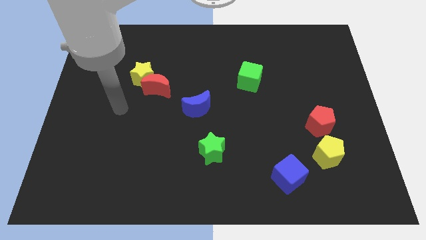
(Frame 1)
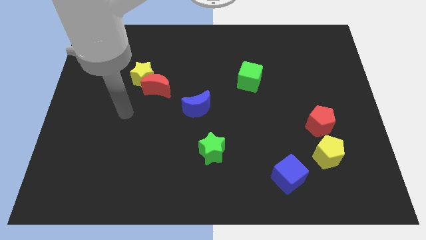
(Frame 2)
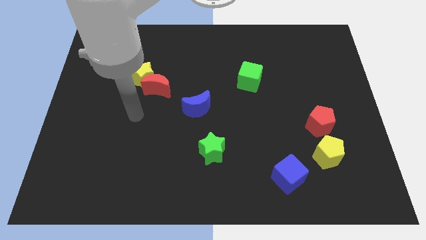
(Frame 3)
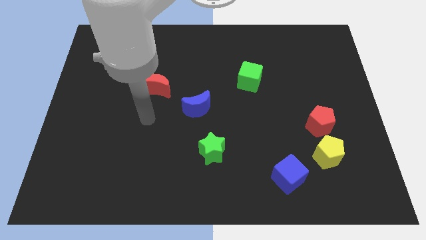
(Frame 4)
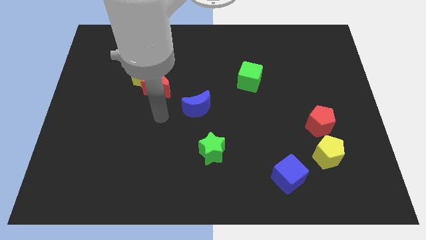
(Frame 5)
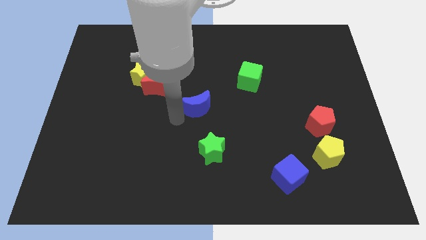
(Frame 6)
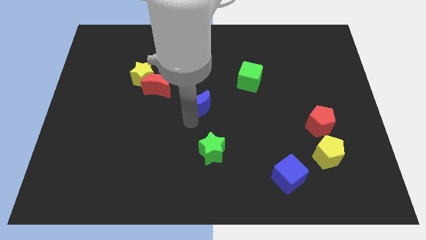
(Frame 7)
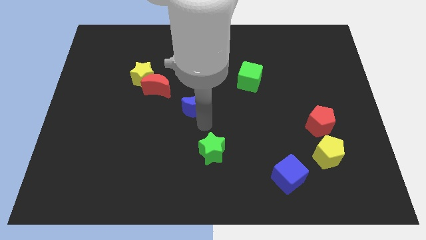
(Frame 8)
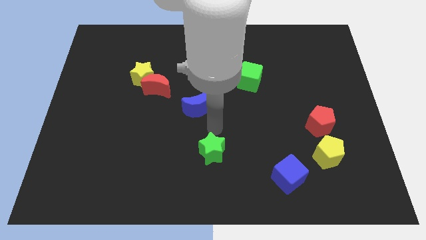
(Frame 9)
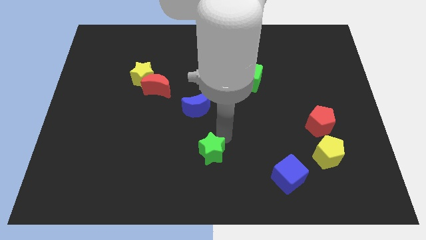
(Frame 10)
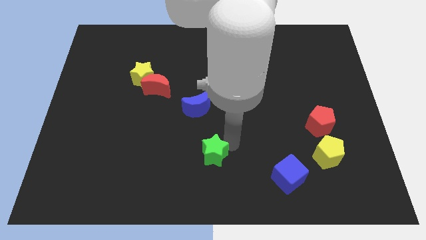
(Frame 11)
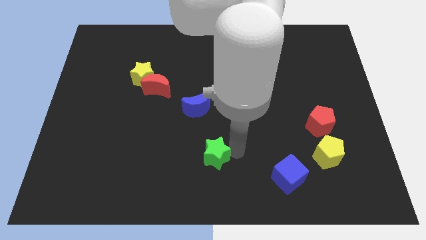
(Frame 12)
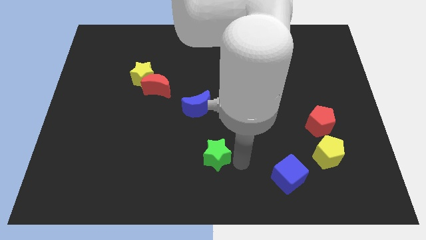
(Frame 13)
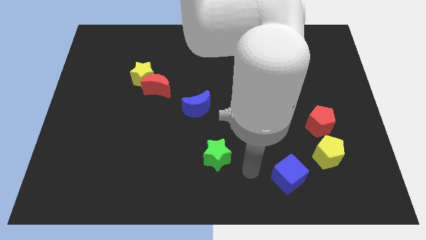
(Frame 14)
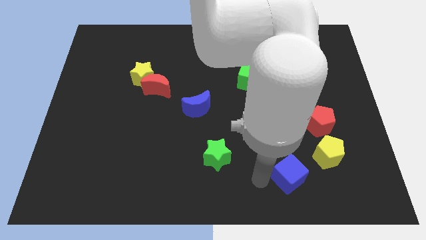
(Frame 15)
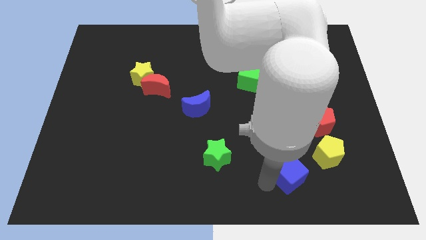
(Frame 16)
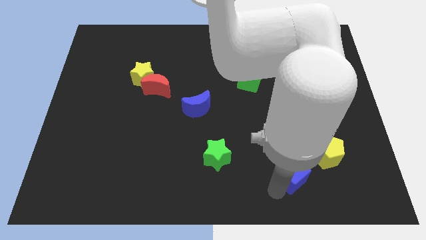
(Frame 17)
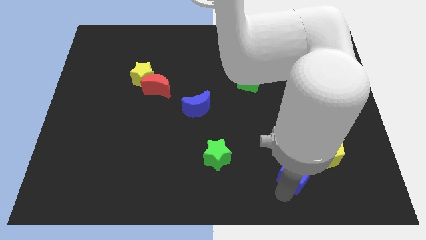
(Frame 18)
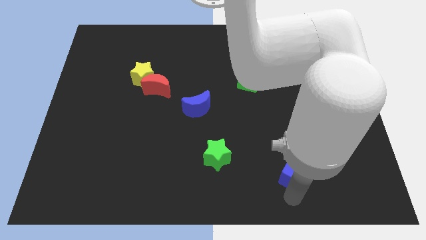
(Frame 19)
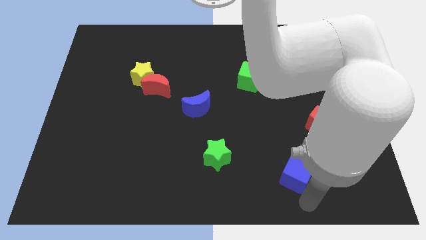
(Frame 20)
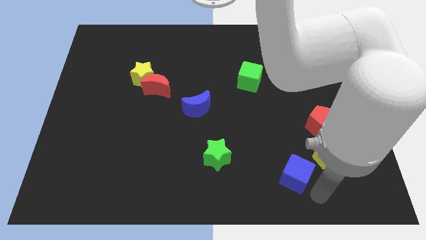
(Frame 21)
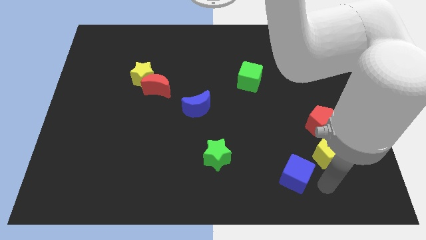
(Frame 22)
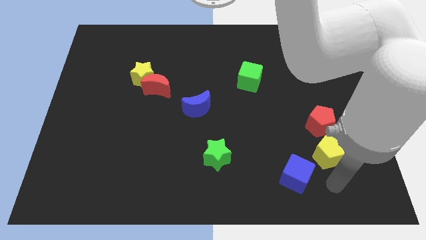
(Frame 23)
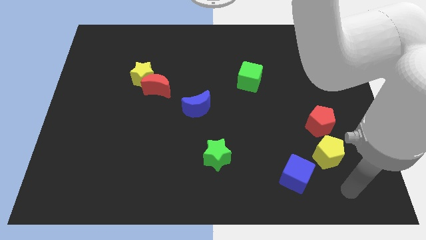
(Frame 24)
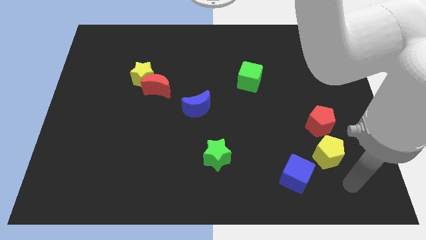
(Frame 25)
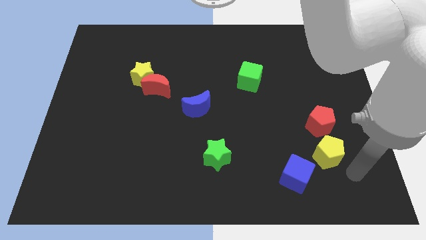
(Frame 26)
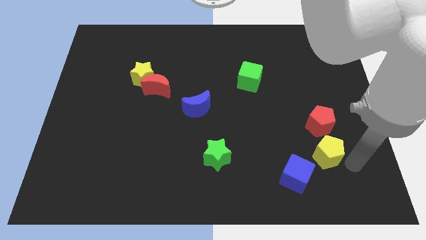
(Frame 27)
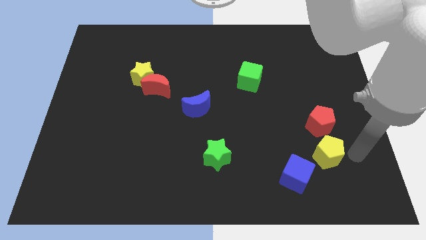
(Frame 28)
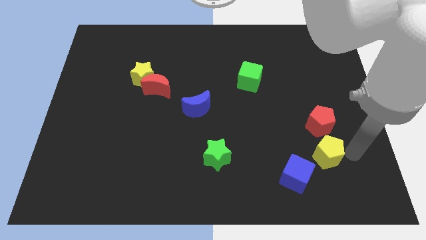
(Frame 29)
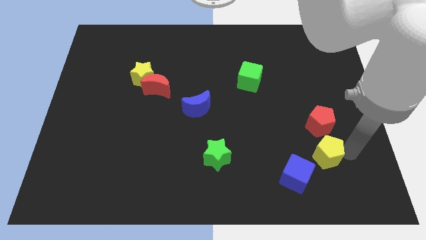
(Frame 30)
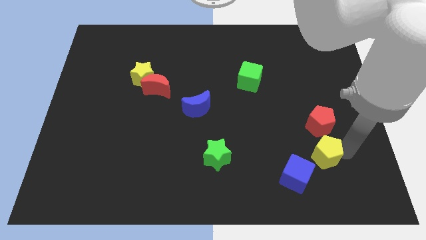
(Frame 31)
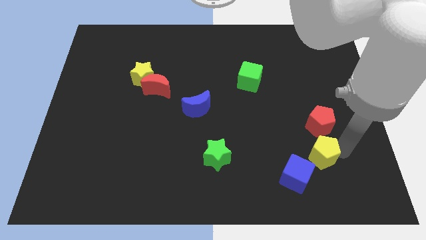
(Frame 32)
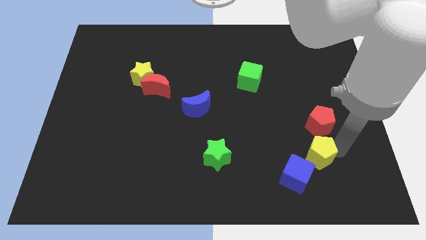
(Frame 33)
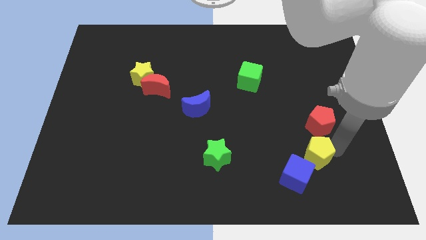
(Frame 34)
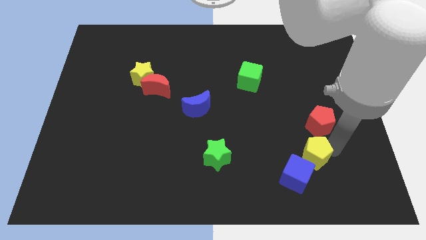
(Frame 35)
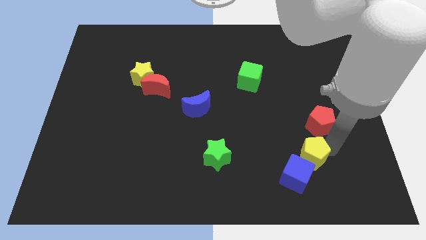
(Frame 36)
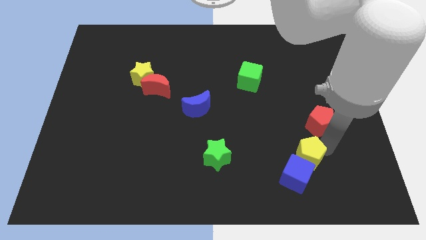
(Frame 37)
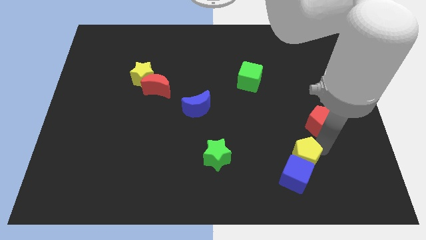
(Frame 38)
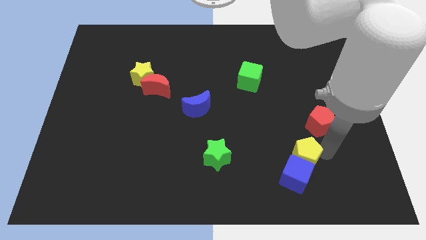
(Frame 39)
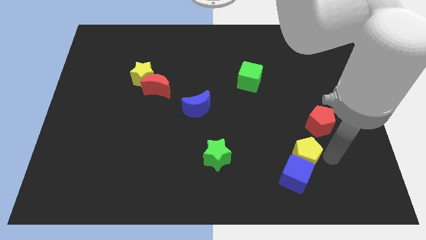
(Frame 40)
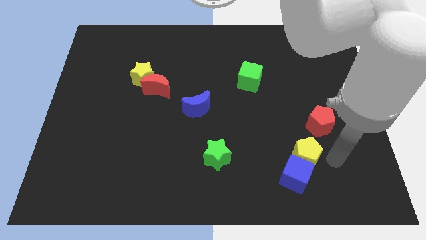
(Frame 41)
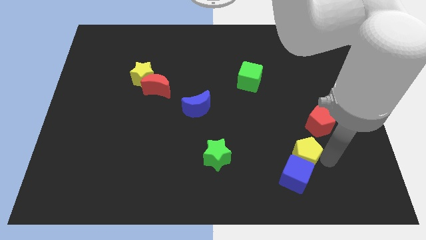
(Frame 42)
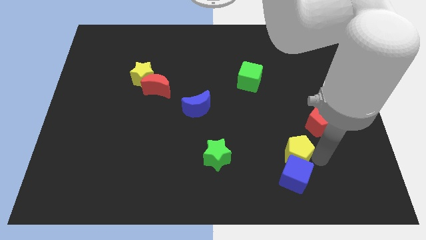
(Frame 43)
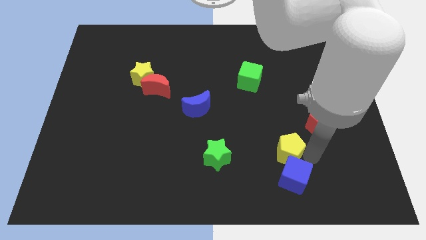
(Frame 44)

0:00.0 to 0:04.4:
move the yellow pentagon somewhat left

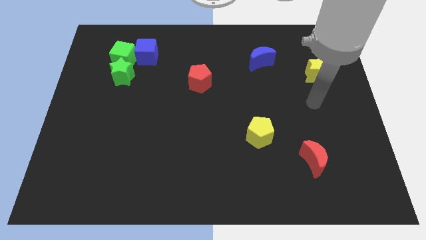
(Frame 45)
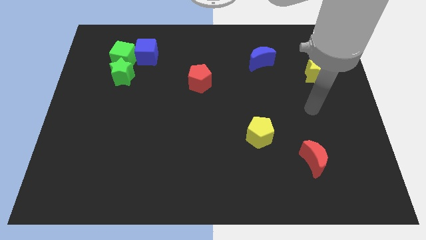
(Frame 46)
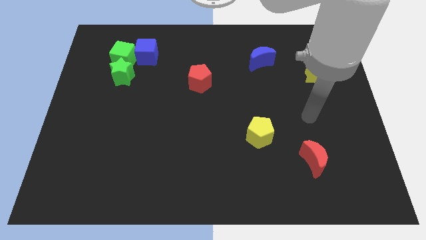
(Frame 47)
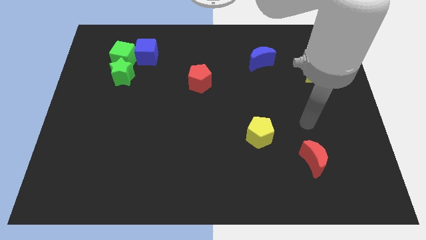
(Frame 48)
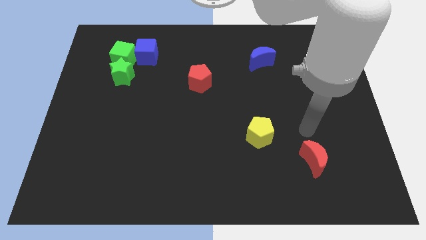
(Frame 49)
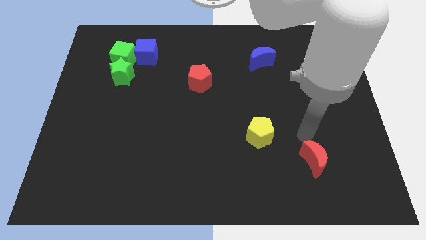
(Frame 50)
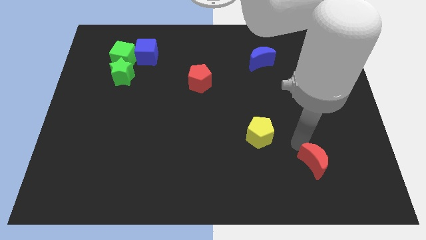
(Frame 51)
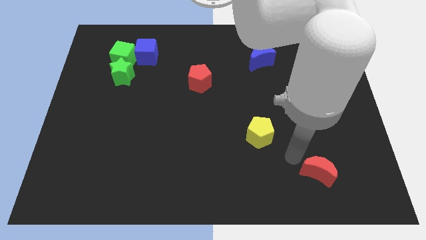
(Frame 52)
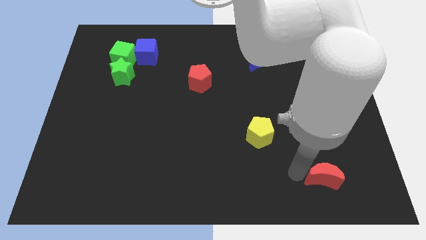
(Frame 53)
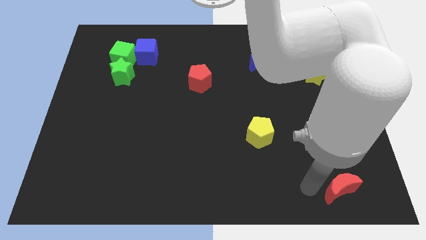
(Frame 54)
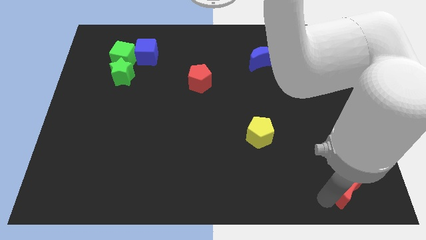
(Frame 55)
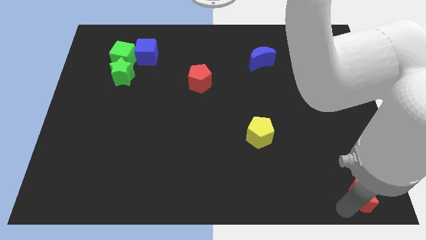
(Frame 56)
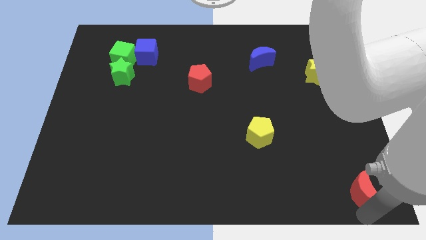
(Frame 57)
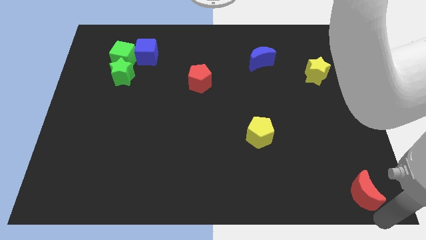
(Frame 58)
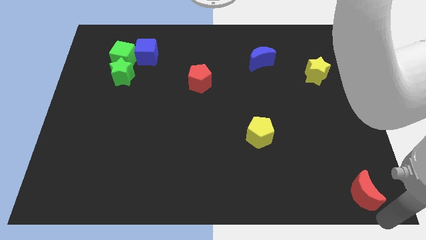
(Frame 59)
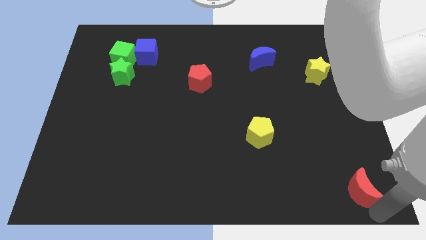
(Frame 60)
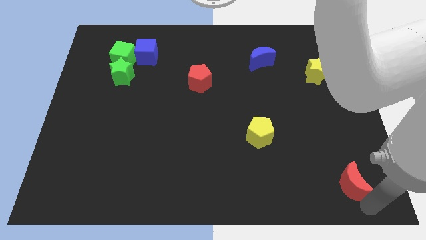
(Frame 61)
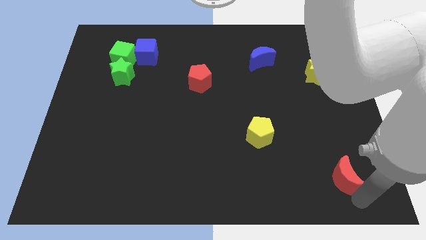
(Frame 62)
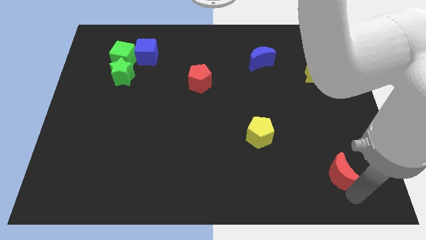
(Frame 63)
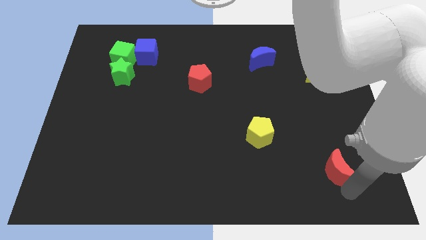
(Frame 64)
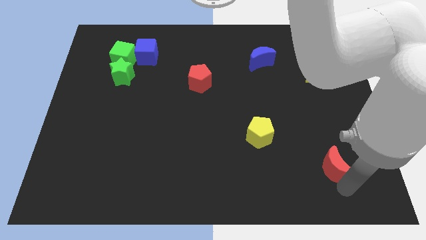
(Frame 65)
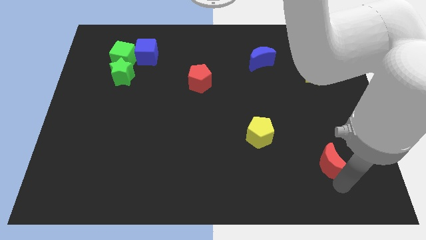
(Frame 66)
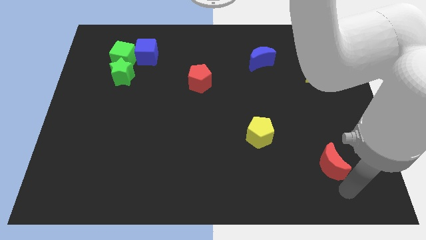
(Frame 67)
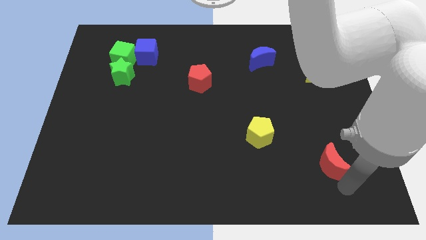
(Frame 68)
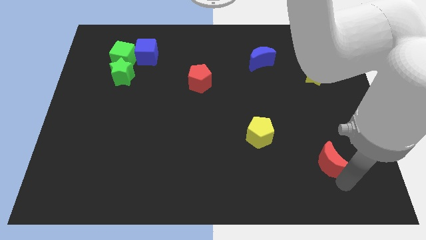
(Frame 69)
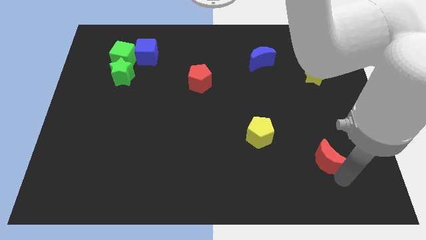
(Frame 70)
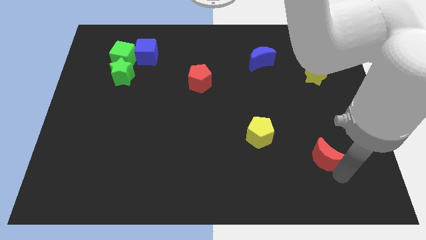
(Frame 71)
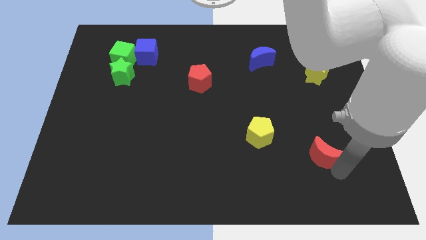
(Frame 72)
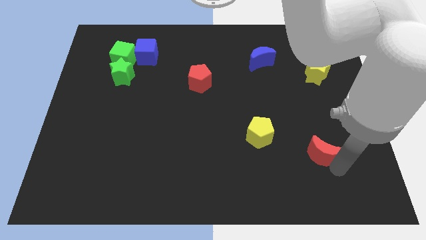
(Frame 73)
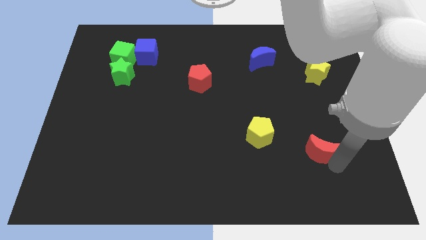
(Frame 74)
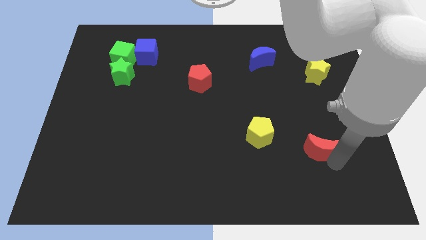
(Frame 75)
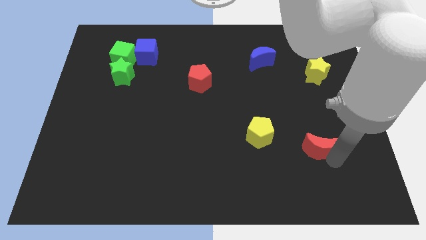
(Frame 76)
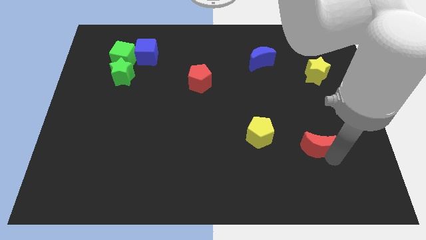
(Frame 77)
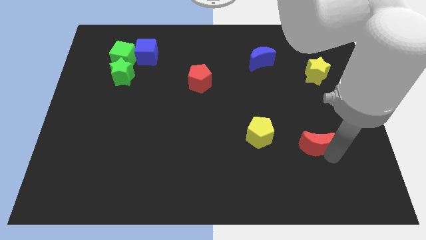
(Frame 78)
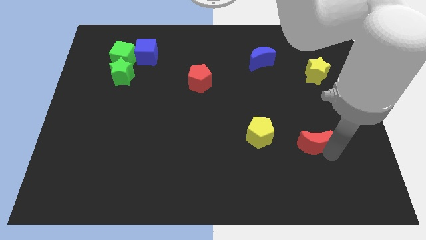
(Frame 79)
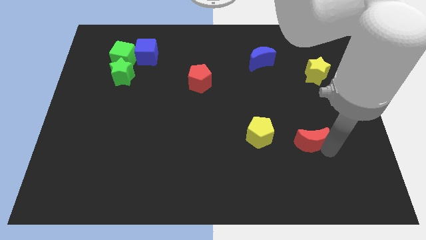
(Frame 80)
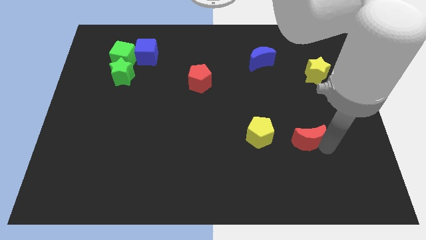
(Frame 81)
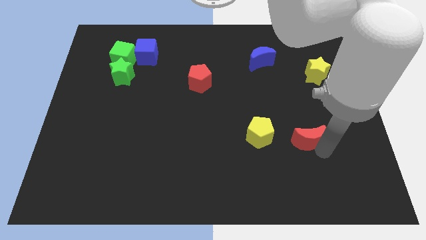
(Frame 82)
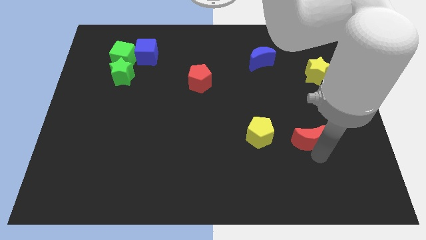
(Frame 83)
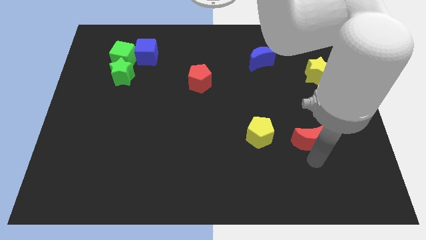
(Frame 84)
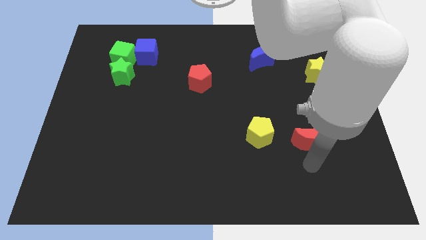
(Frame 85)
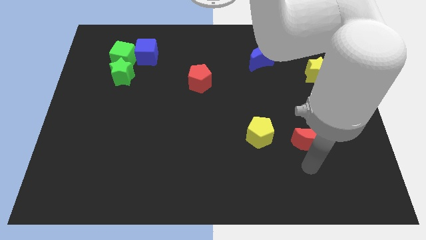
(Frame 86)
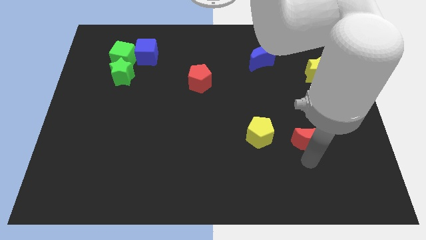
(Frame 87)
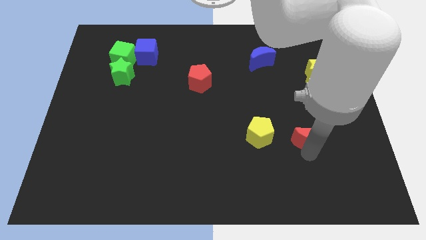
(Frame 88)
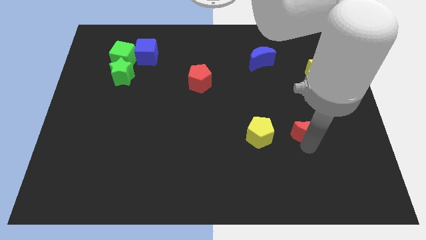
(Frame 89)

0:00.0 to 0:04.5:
move the red moon up a bit
